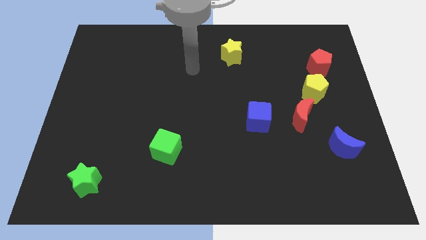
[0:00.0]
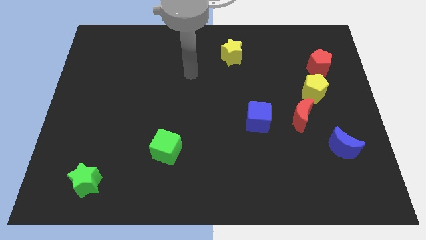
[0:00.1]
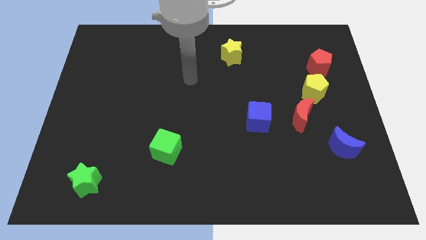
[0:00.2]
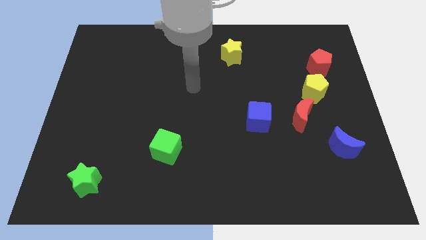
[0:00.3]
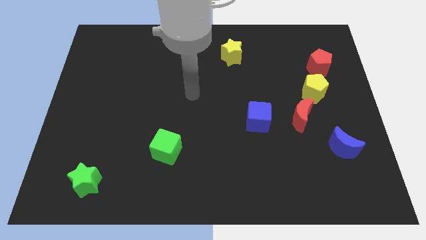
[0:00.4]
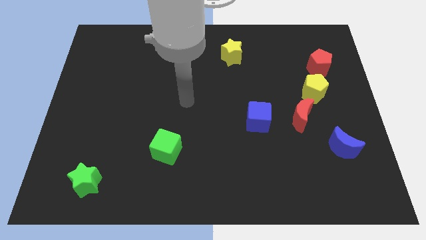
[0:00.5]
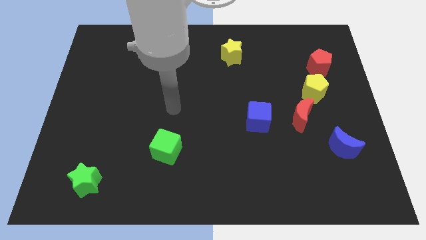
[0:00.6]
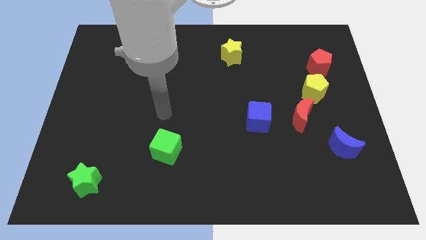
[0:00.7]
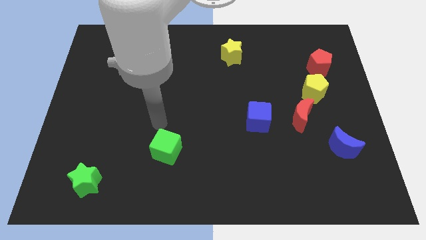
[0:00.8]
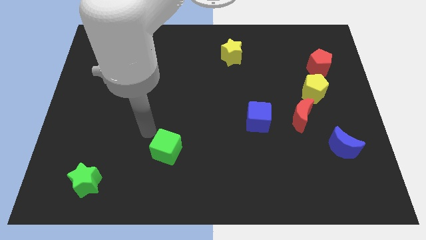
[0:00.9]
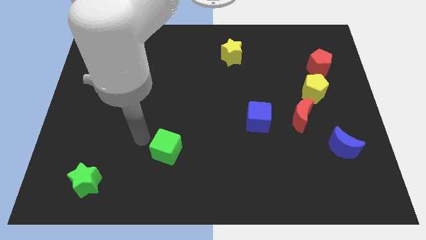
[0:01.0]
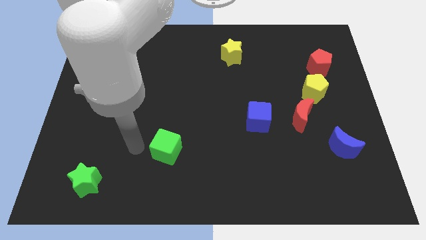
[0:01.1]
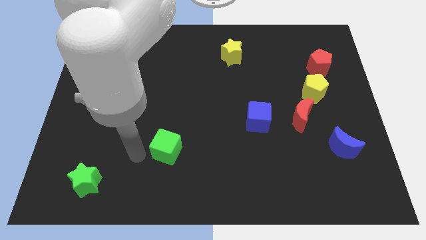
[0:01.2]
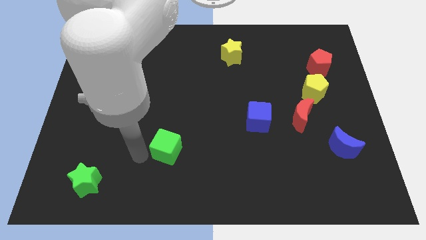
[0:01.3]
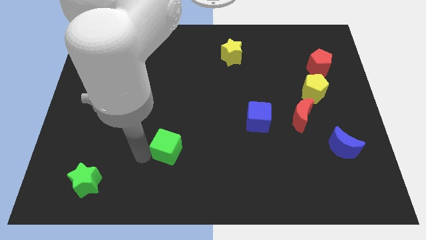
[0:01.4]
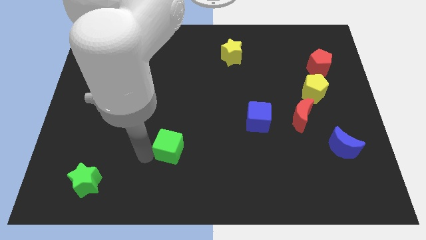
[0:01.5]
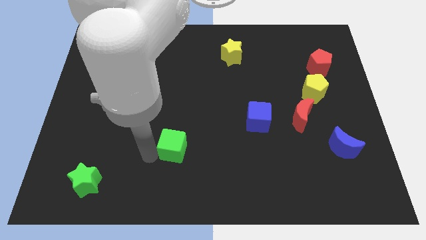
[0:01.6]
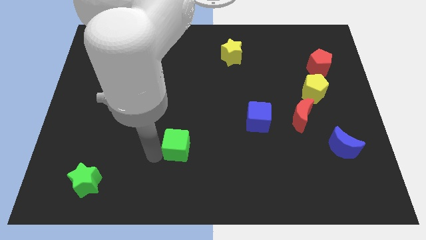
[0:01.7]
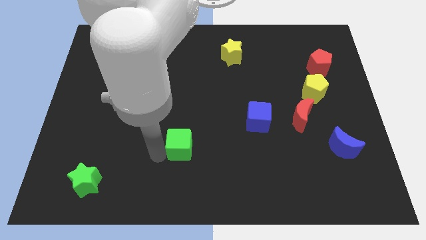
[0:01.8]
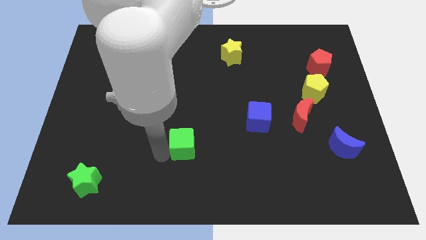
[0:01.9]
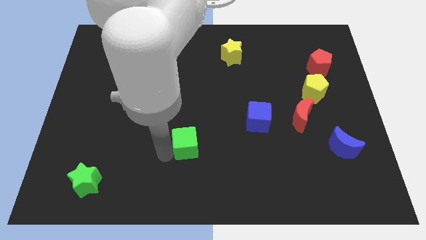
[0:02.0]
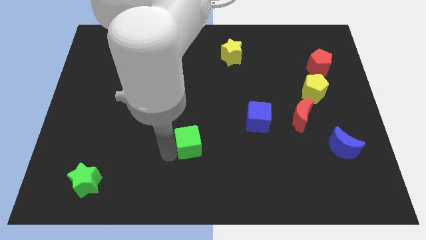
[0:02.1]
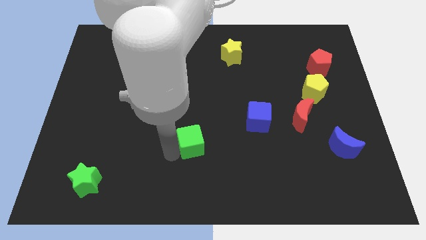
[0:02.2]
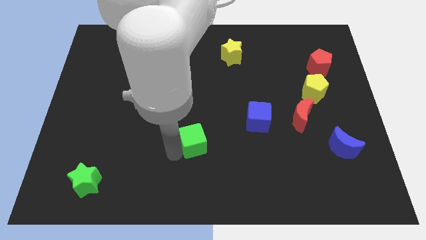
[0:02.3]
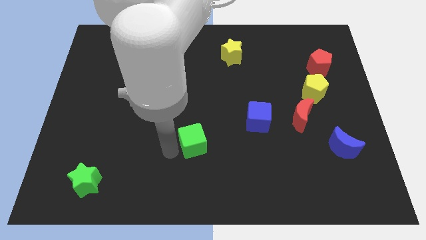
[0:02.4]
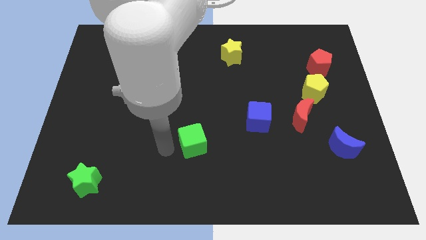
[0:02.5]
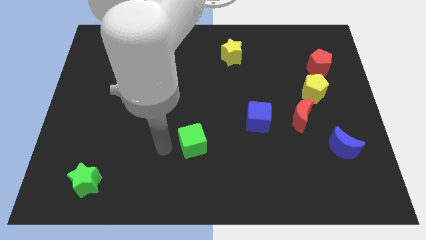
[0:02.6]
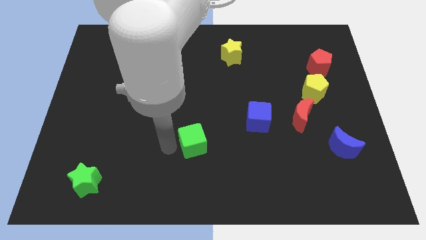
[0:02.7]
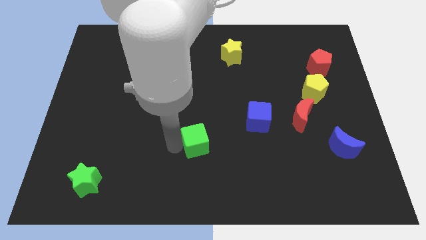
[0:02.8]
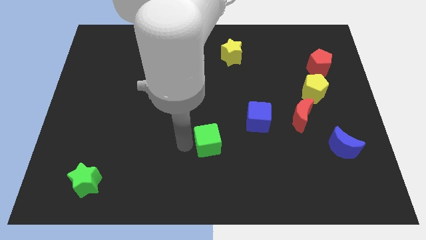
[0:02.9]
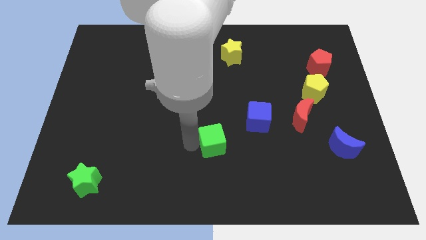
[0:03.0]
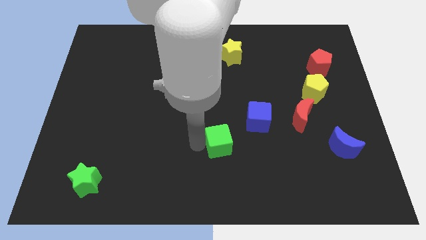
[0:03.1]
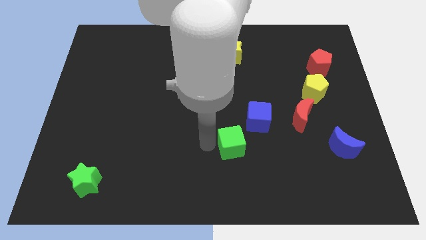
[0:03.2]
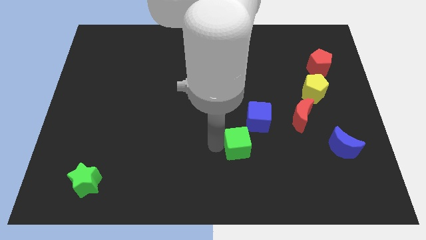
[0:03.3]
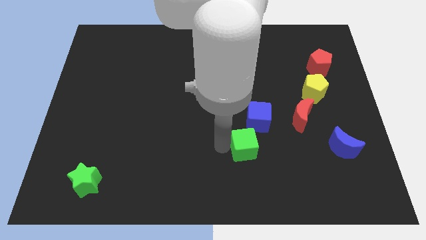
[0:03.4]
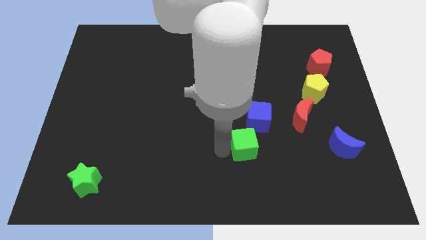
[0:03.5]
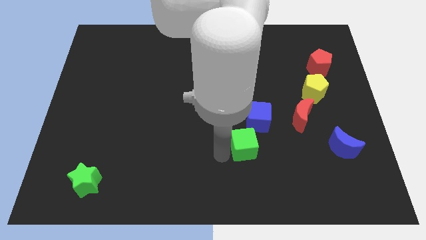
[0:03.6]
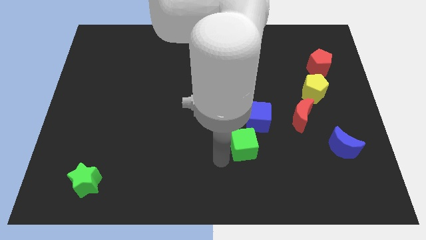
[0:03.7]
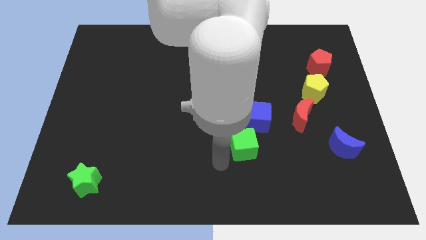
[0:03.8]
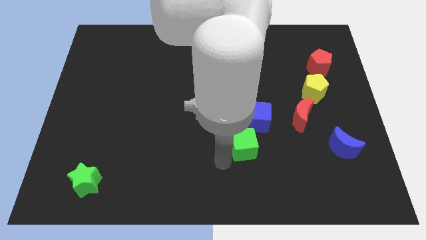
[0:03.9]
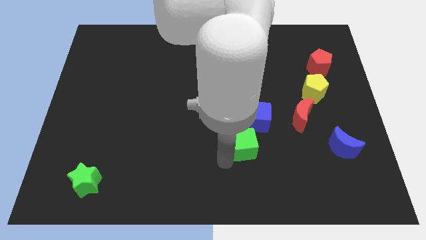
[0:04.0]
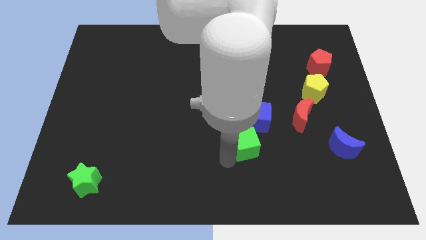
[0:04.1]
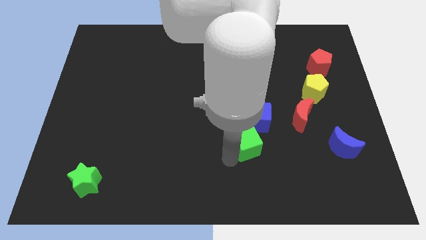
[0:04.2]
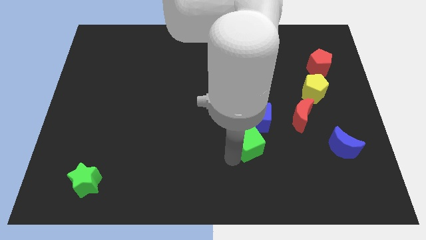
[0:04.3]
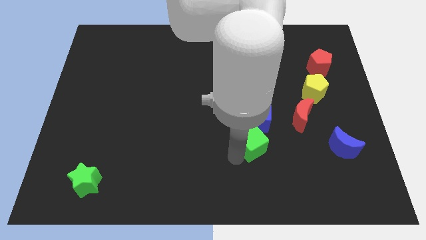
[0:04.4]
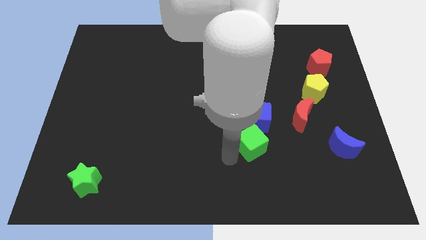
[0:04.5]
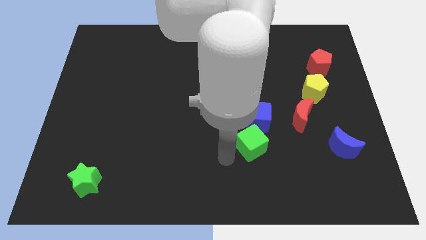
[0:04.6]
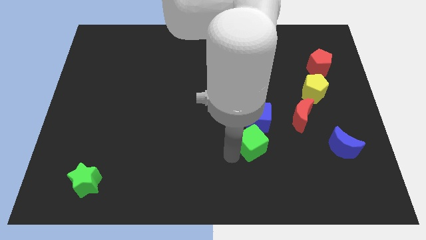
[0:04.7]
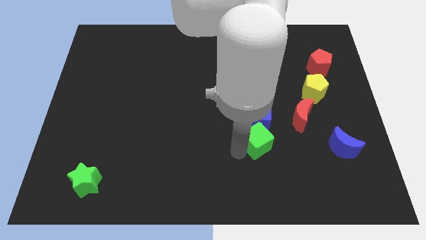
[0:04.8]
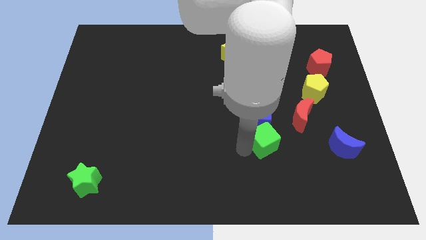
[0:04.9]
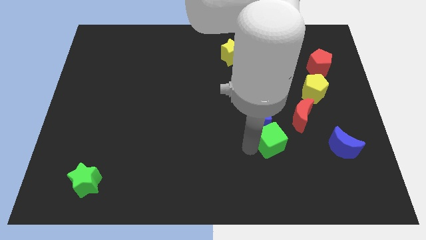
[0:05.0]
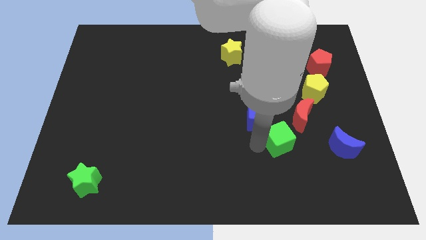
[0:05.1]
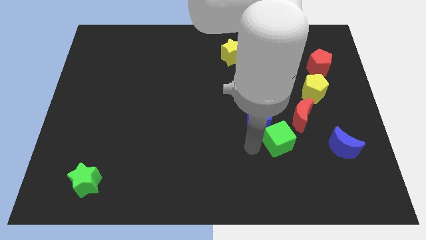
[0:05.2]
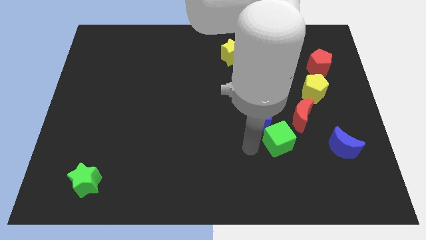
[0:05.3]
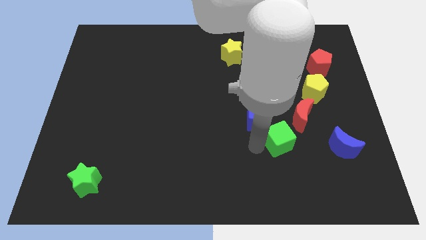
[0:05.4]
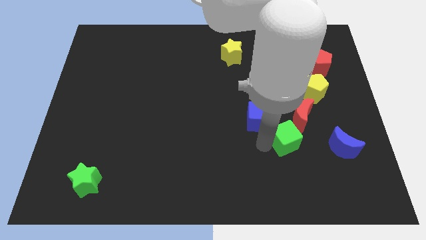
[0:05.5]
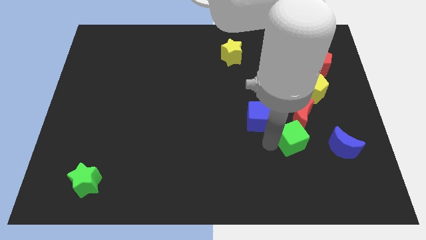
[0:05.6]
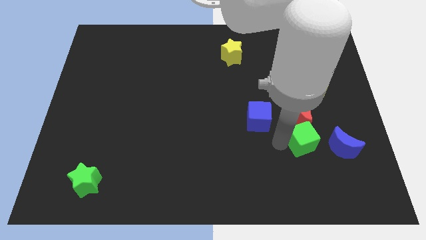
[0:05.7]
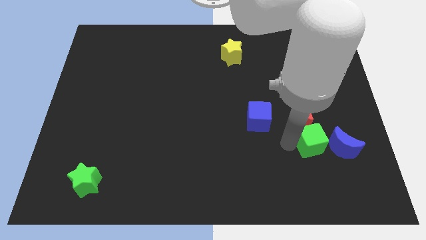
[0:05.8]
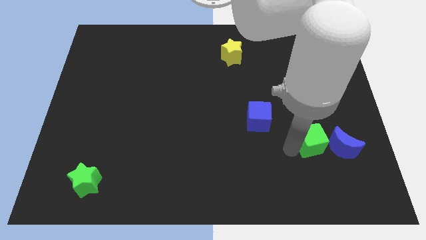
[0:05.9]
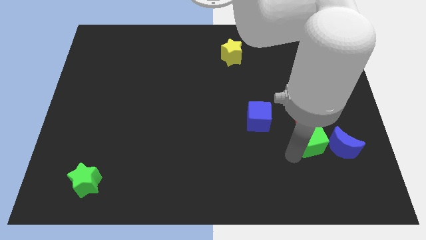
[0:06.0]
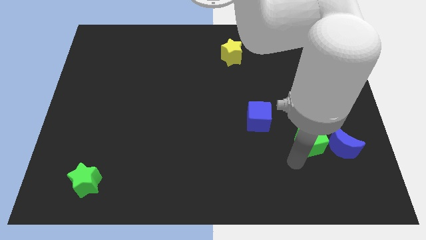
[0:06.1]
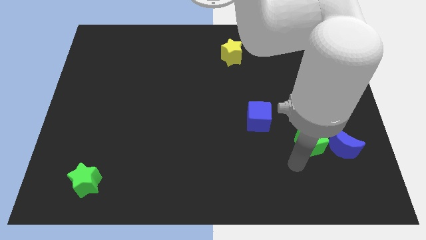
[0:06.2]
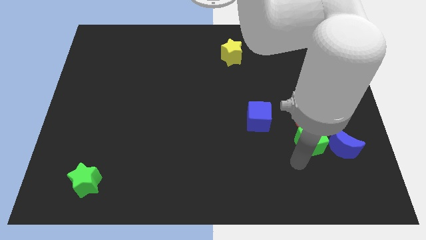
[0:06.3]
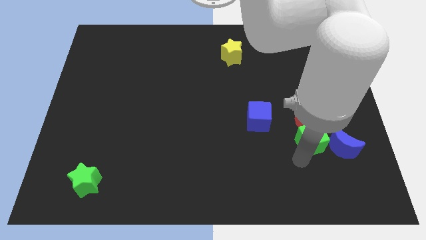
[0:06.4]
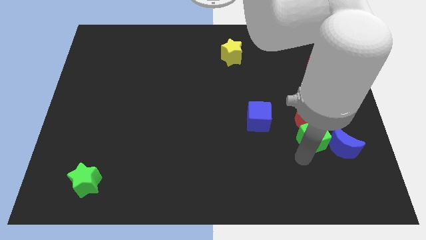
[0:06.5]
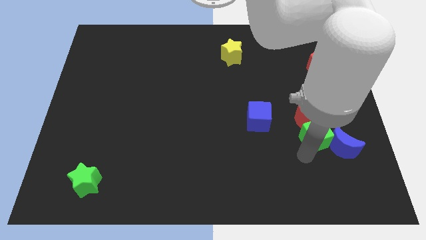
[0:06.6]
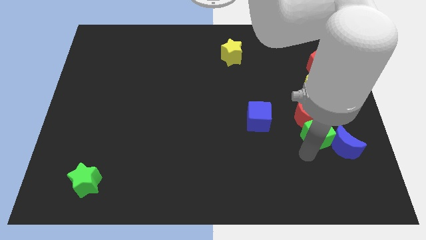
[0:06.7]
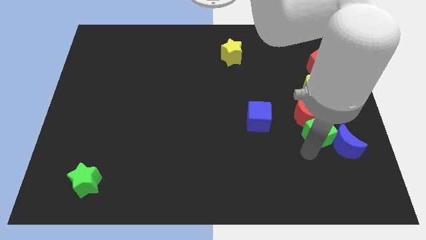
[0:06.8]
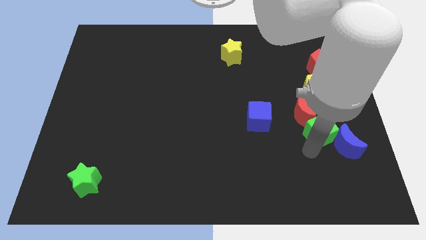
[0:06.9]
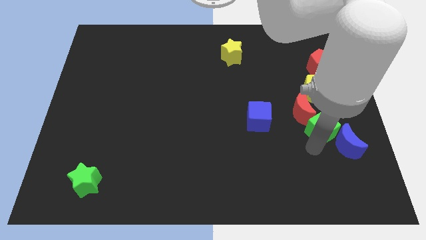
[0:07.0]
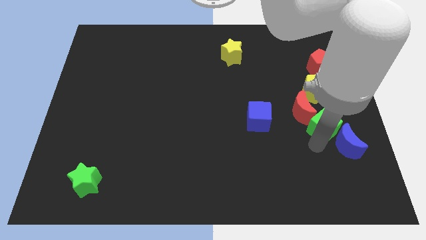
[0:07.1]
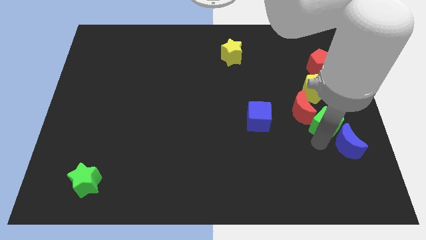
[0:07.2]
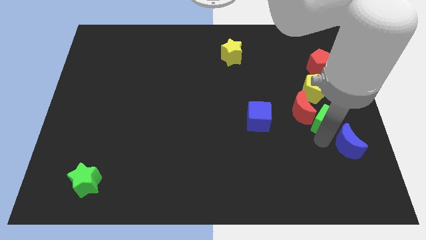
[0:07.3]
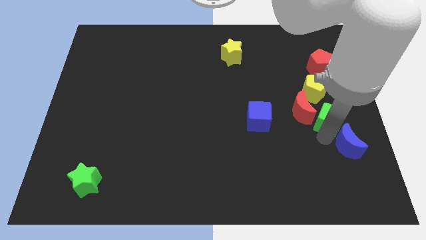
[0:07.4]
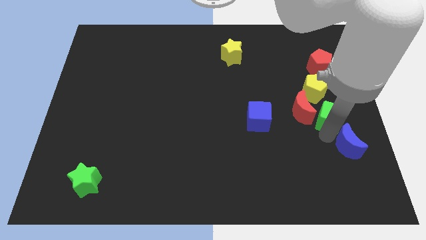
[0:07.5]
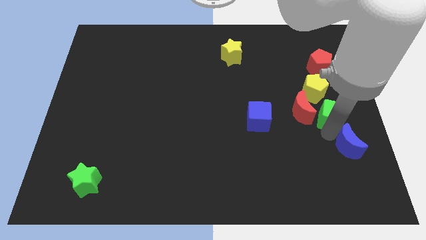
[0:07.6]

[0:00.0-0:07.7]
push the green cube to the bottom side of the red pentagon
